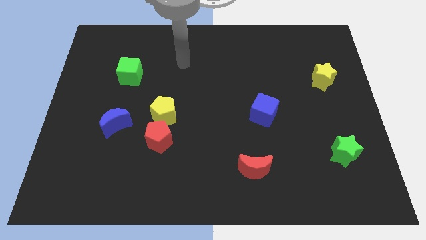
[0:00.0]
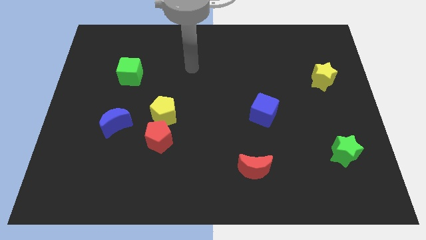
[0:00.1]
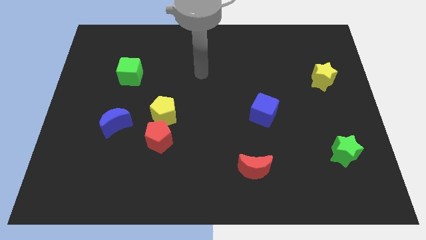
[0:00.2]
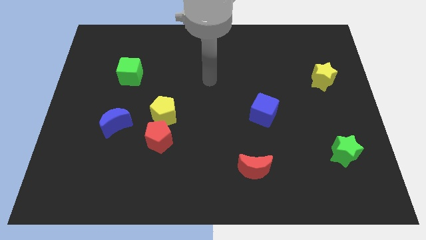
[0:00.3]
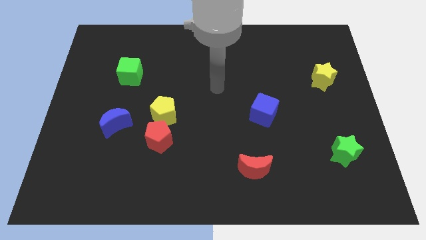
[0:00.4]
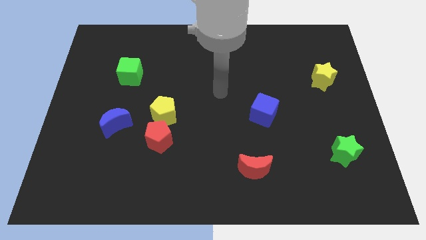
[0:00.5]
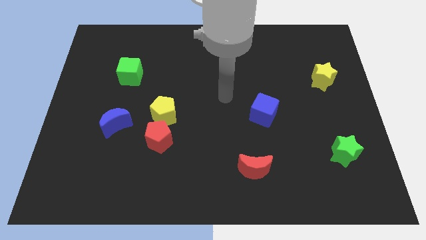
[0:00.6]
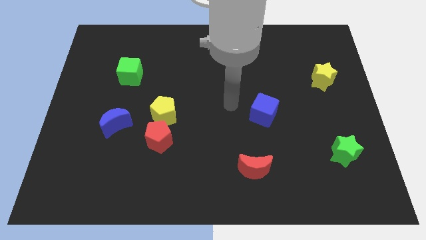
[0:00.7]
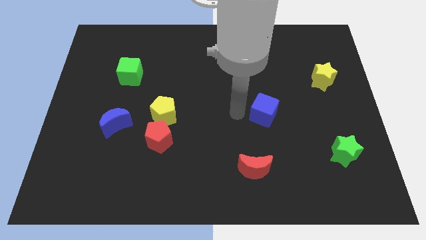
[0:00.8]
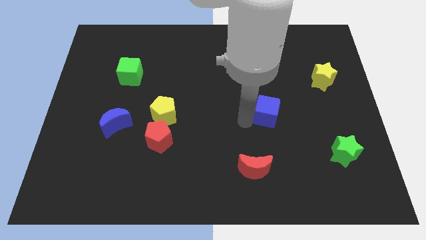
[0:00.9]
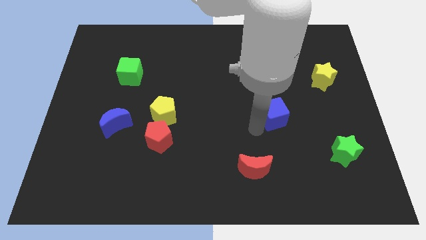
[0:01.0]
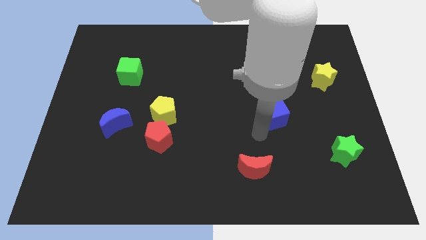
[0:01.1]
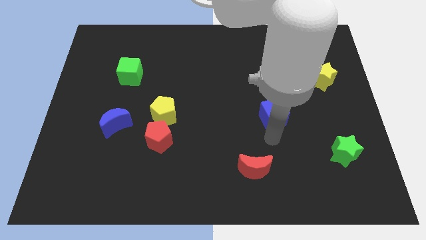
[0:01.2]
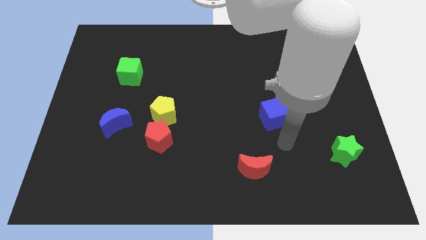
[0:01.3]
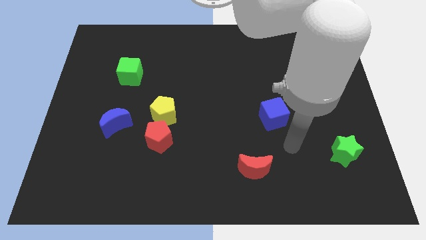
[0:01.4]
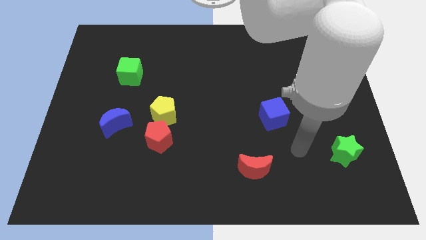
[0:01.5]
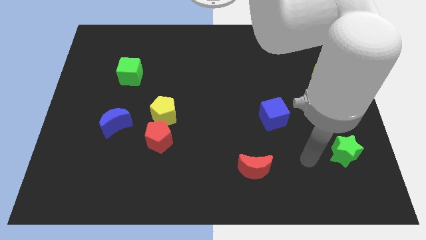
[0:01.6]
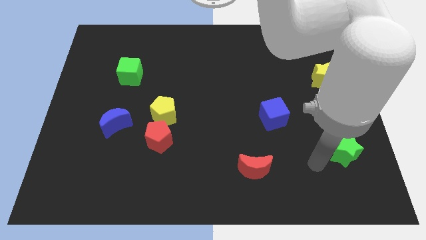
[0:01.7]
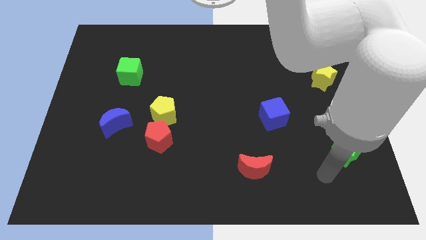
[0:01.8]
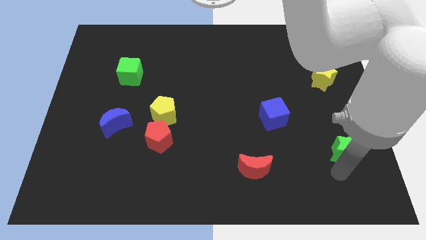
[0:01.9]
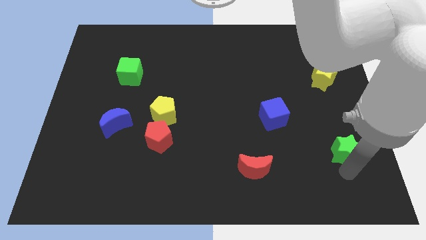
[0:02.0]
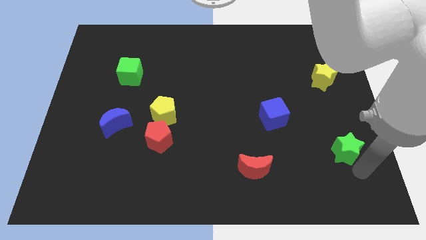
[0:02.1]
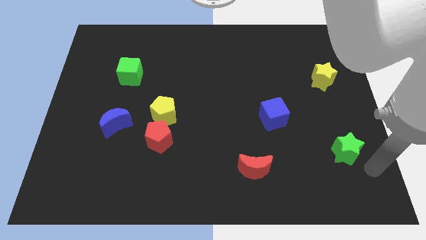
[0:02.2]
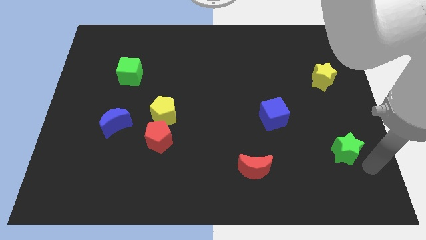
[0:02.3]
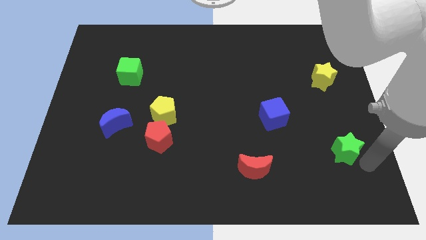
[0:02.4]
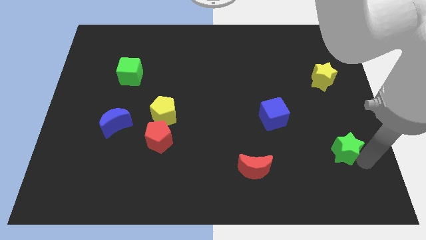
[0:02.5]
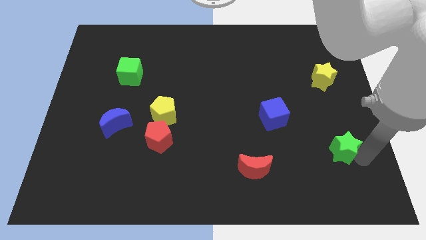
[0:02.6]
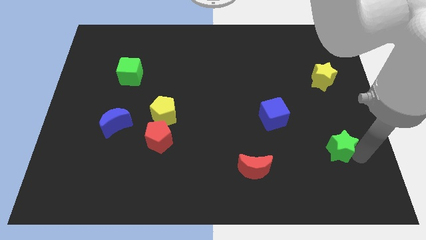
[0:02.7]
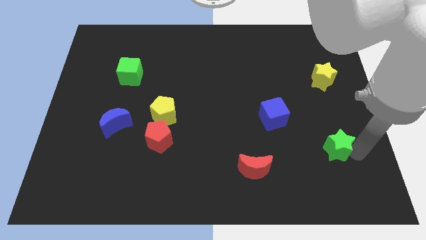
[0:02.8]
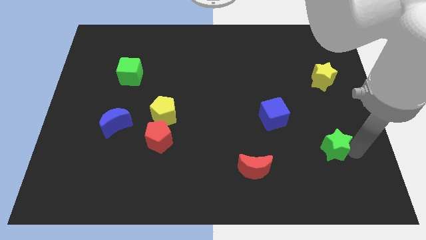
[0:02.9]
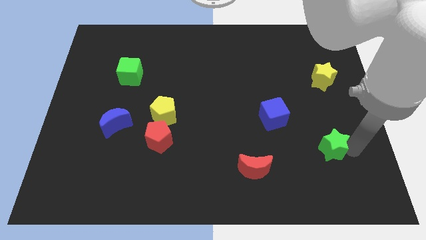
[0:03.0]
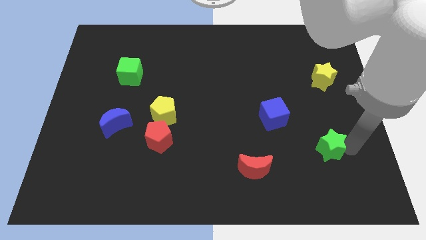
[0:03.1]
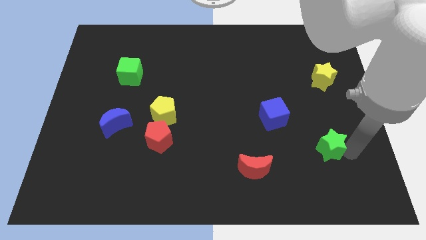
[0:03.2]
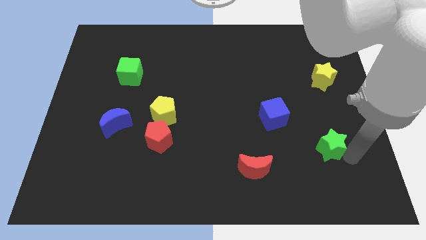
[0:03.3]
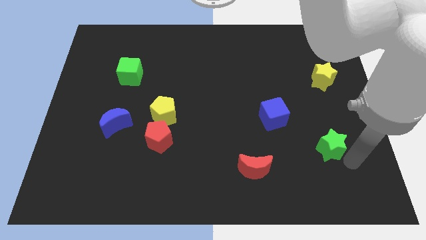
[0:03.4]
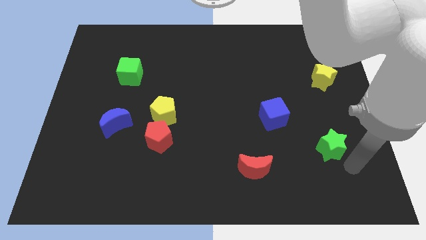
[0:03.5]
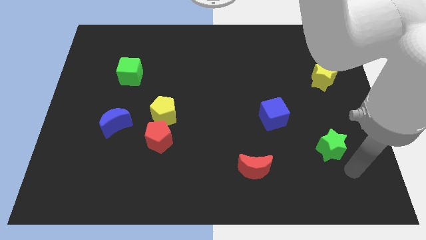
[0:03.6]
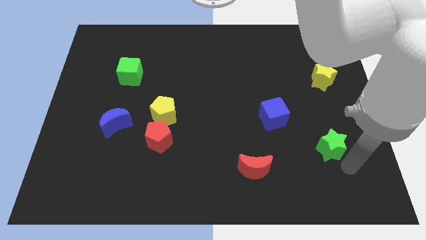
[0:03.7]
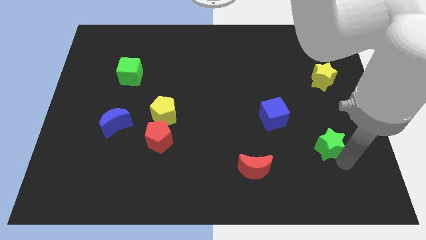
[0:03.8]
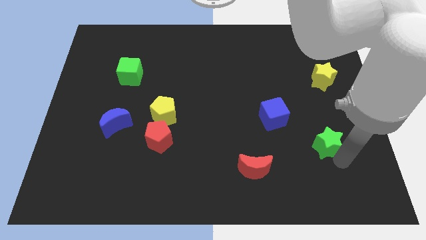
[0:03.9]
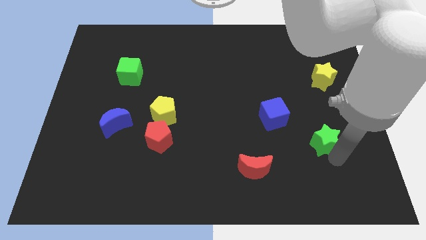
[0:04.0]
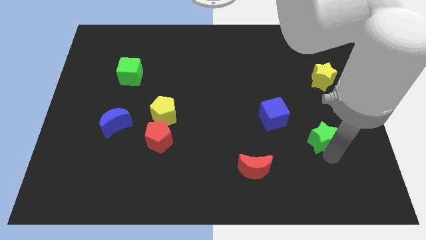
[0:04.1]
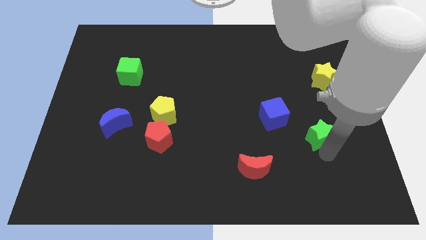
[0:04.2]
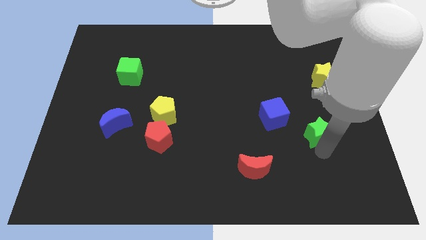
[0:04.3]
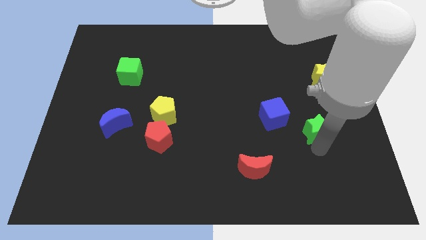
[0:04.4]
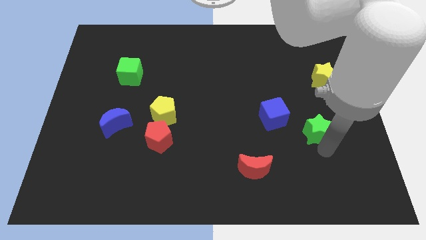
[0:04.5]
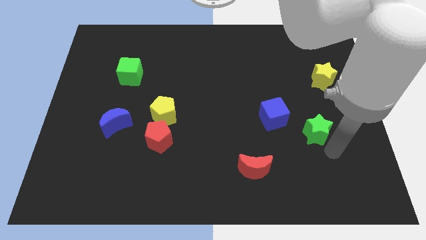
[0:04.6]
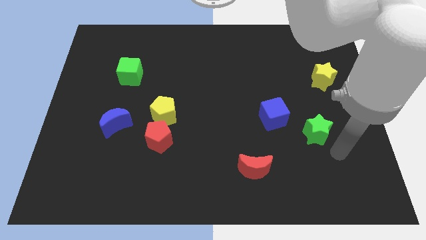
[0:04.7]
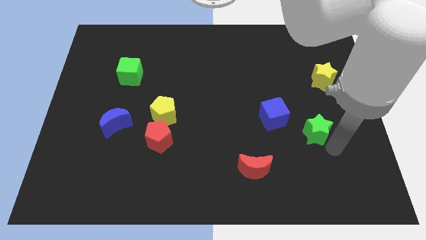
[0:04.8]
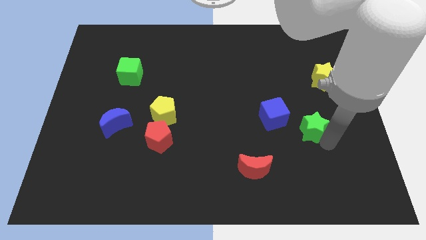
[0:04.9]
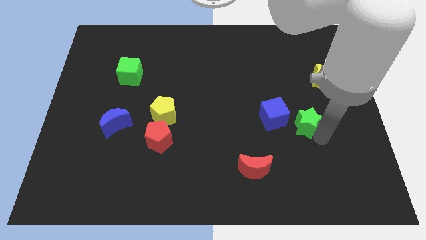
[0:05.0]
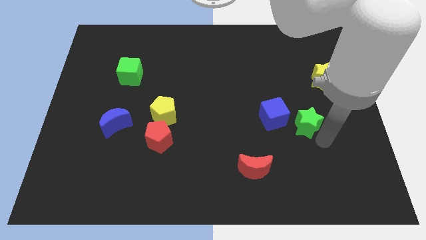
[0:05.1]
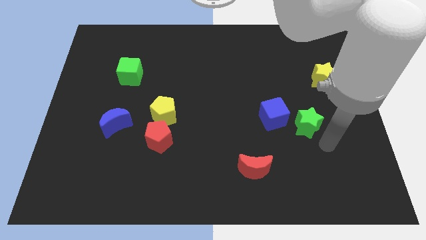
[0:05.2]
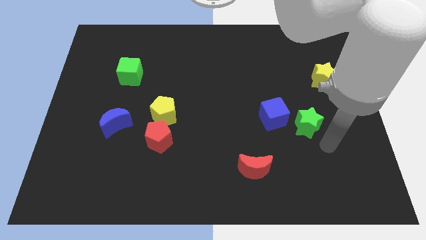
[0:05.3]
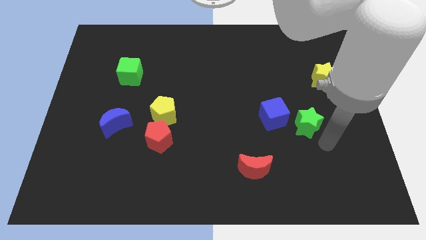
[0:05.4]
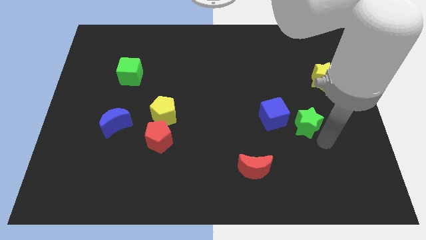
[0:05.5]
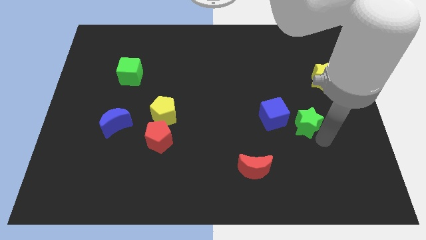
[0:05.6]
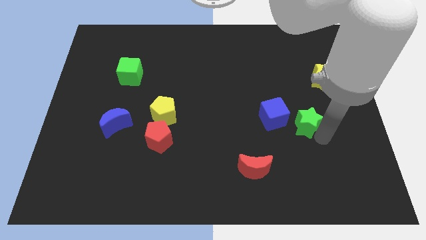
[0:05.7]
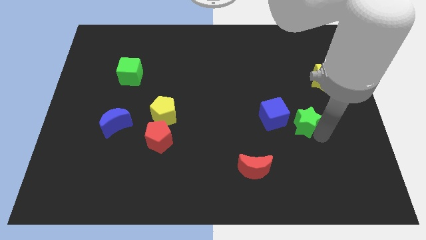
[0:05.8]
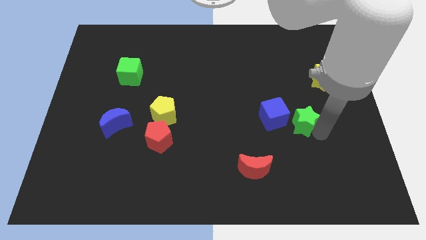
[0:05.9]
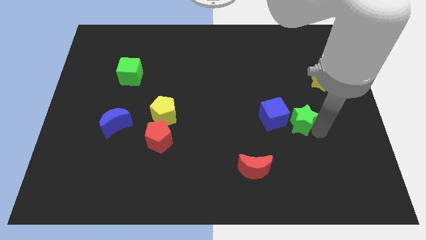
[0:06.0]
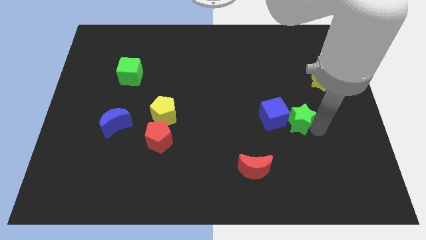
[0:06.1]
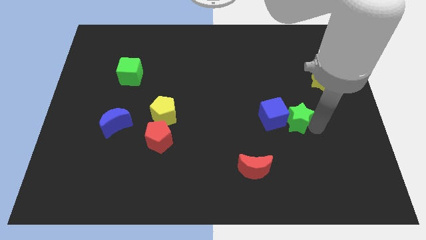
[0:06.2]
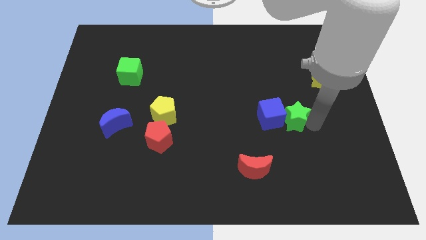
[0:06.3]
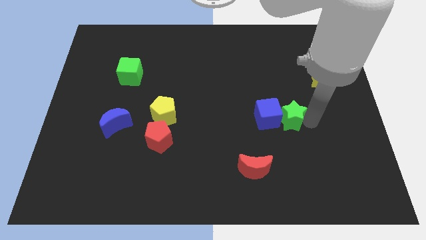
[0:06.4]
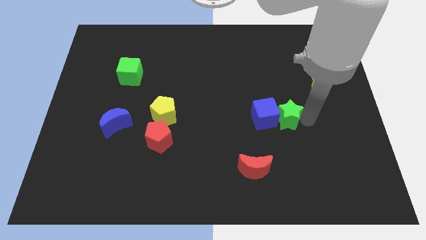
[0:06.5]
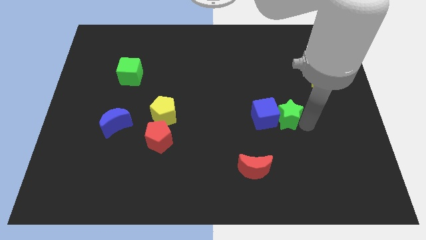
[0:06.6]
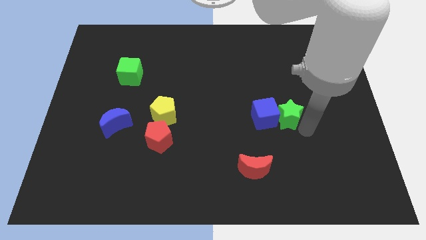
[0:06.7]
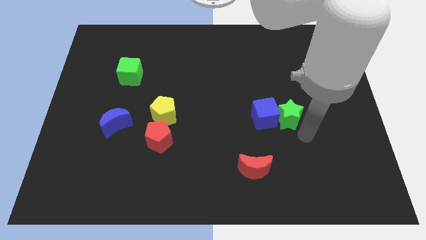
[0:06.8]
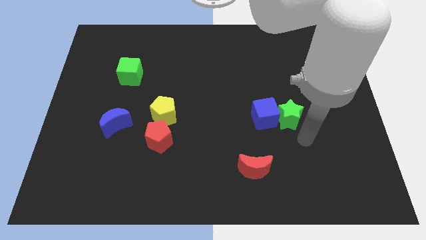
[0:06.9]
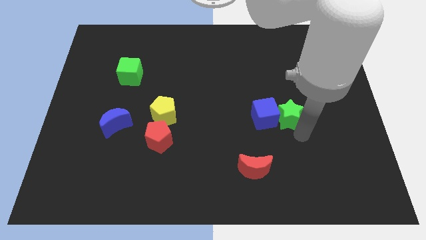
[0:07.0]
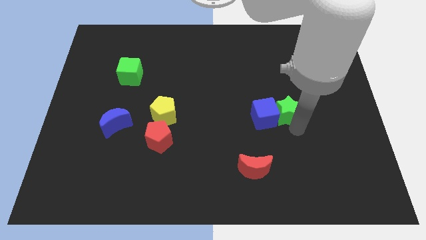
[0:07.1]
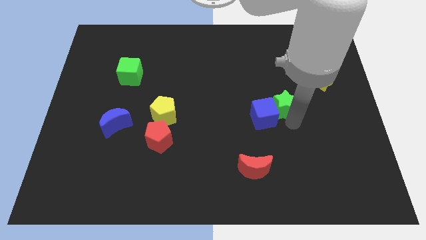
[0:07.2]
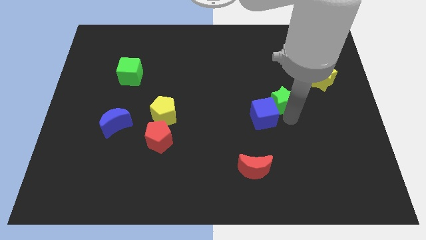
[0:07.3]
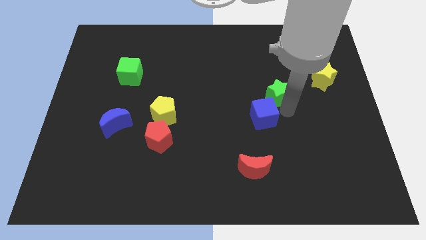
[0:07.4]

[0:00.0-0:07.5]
move the green star up and to the left
